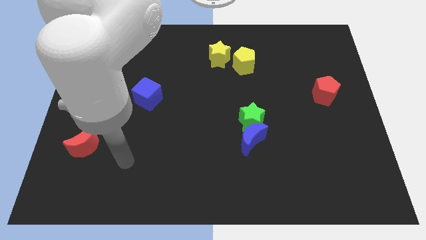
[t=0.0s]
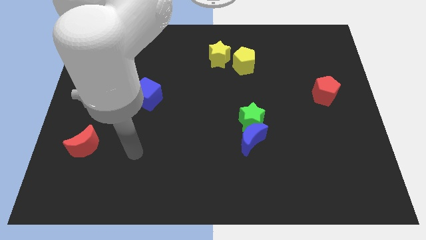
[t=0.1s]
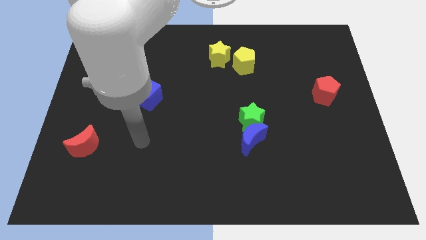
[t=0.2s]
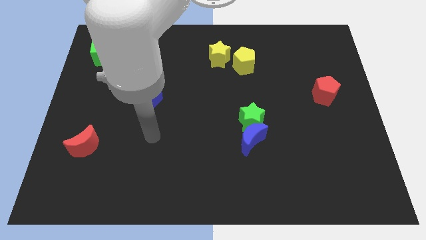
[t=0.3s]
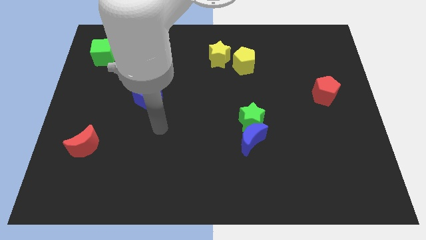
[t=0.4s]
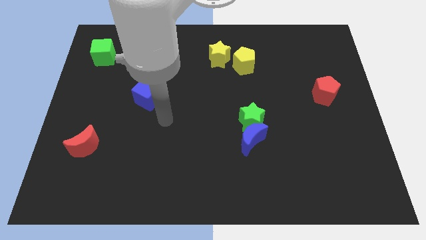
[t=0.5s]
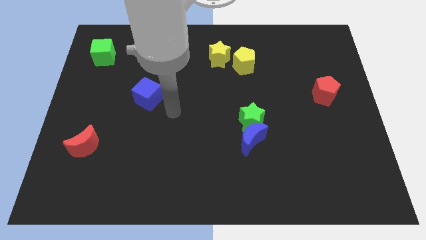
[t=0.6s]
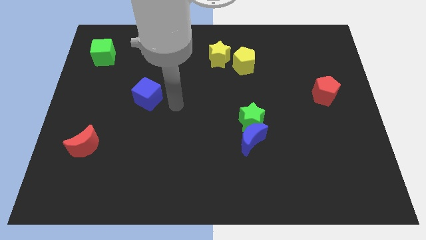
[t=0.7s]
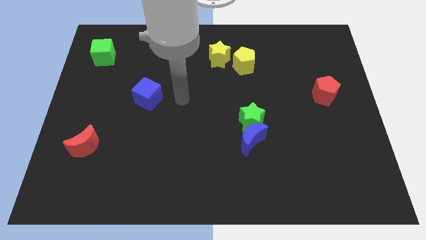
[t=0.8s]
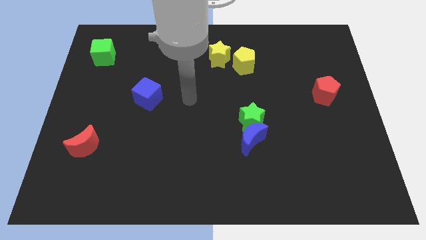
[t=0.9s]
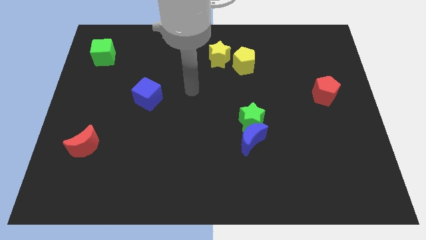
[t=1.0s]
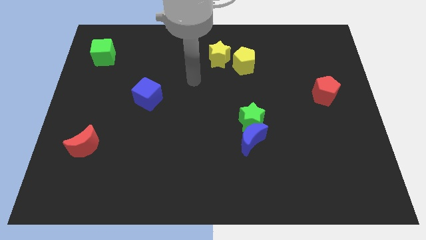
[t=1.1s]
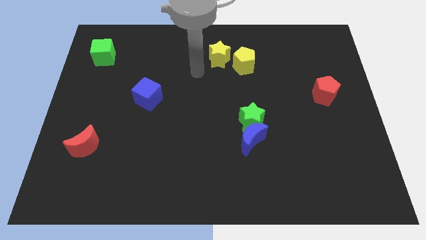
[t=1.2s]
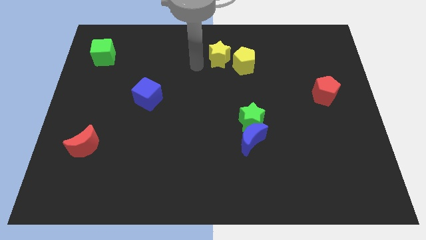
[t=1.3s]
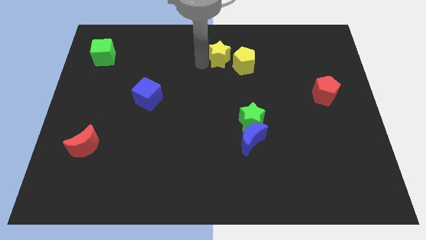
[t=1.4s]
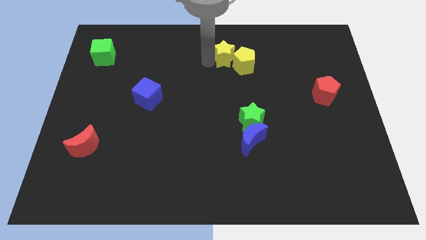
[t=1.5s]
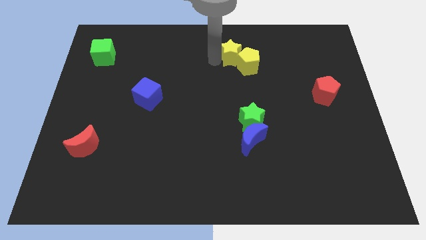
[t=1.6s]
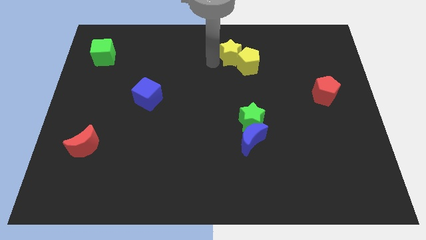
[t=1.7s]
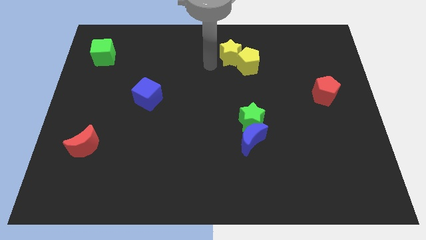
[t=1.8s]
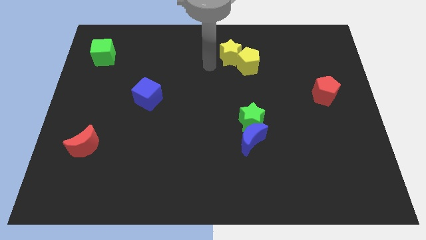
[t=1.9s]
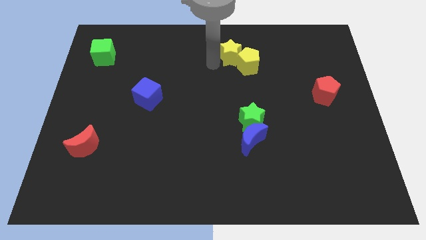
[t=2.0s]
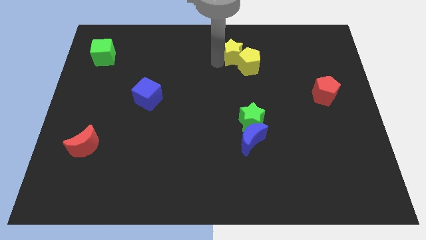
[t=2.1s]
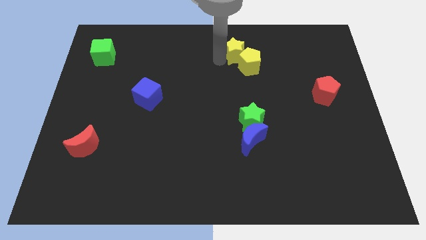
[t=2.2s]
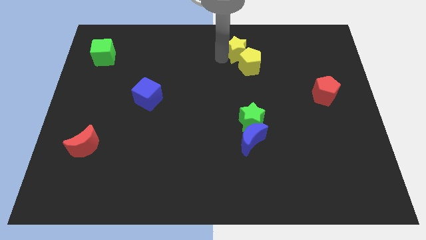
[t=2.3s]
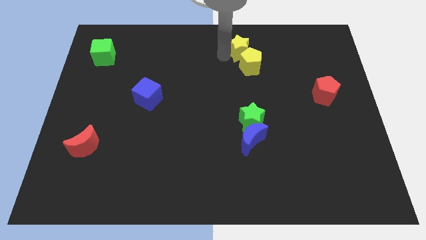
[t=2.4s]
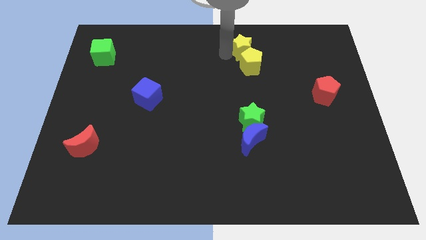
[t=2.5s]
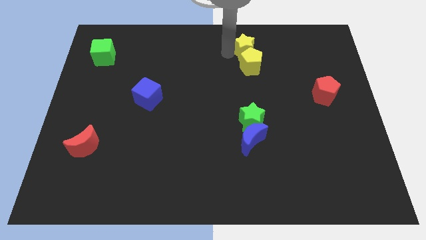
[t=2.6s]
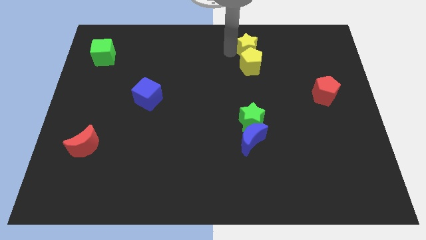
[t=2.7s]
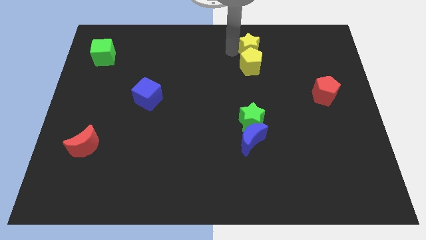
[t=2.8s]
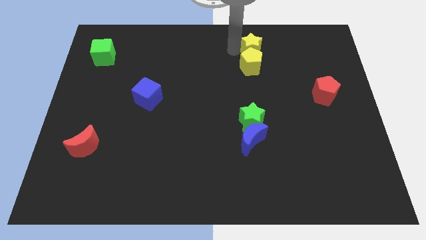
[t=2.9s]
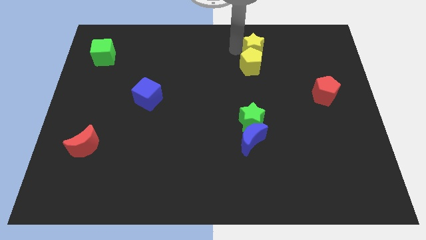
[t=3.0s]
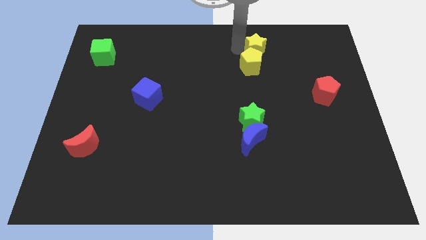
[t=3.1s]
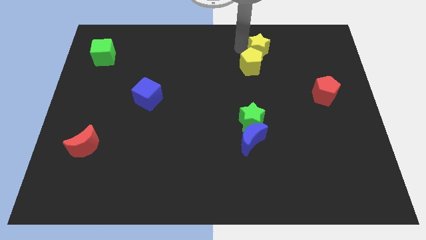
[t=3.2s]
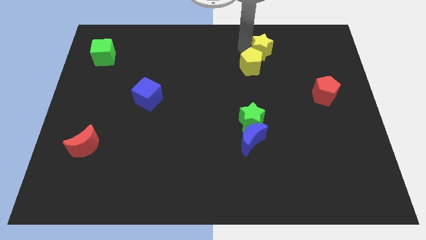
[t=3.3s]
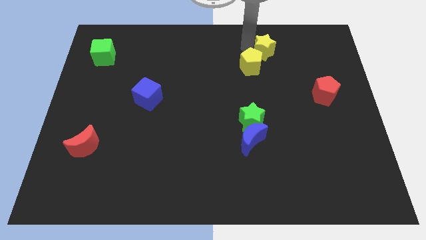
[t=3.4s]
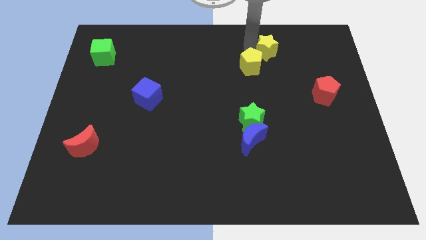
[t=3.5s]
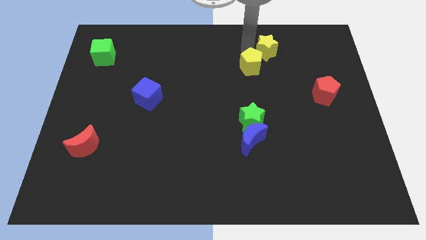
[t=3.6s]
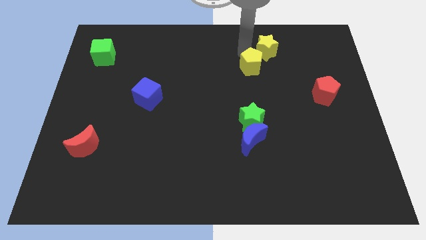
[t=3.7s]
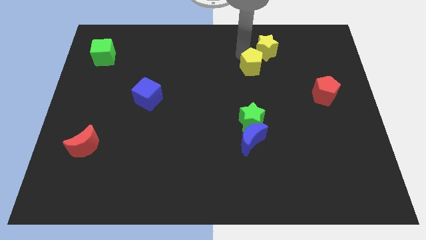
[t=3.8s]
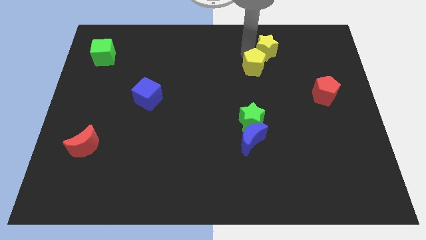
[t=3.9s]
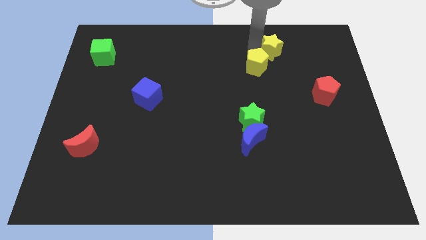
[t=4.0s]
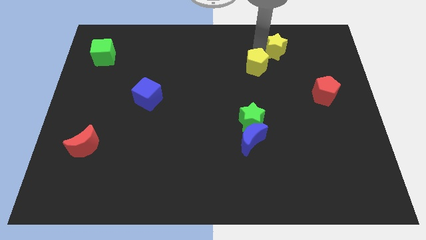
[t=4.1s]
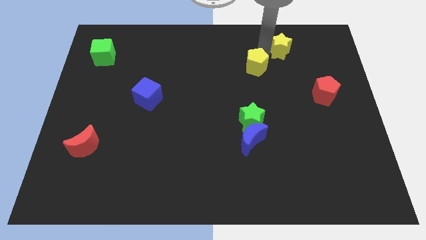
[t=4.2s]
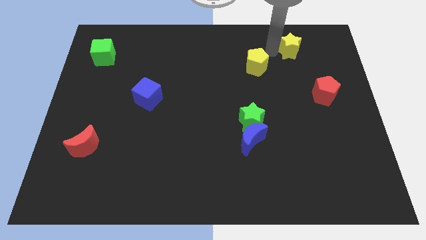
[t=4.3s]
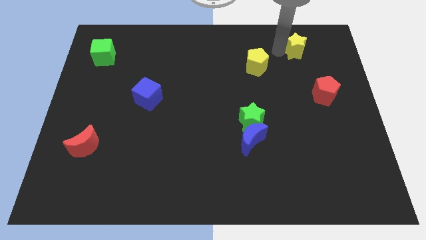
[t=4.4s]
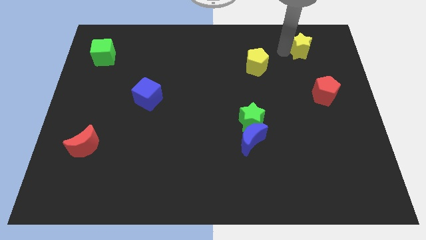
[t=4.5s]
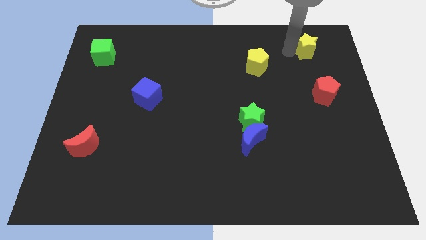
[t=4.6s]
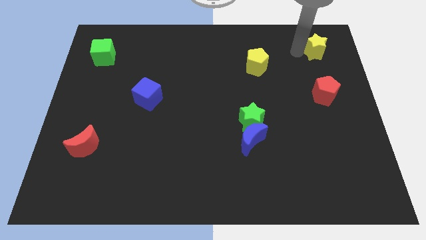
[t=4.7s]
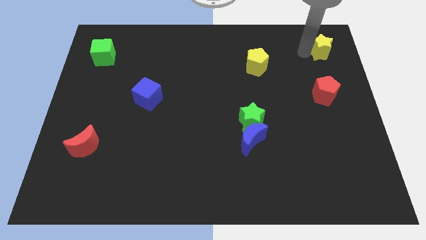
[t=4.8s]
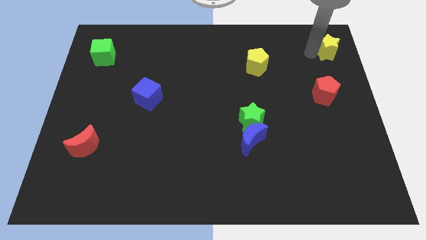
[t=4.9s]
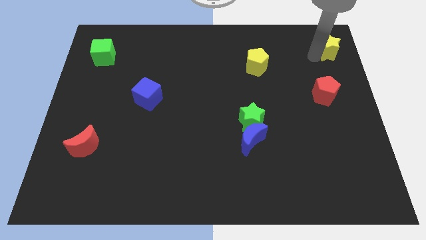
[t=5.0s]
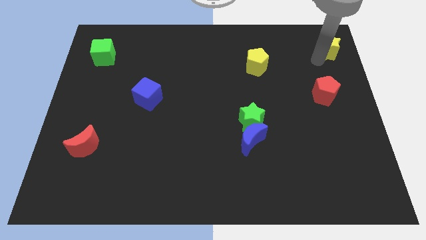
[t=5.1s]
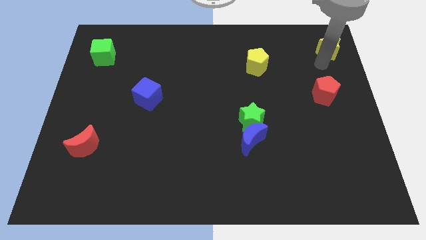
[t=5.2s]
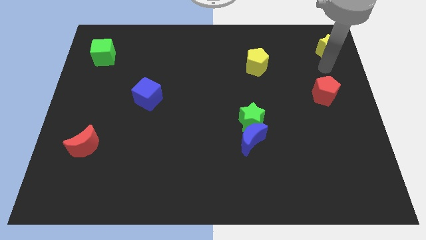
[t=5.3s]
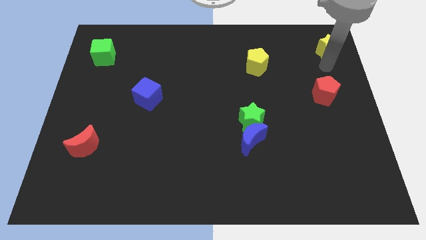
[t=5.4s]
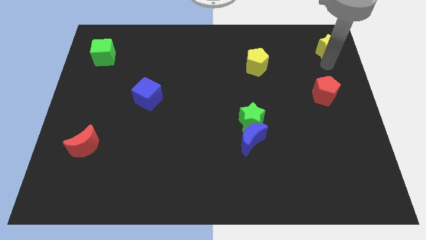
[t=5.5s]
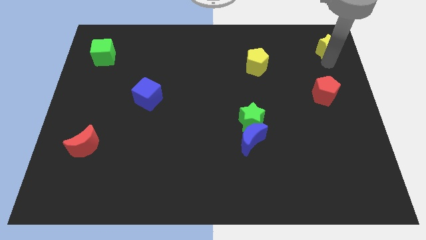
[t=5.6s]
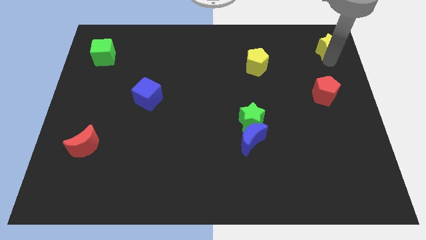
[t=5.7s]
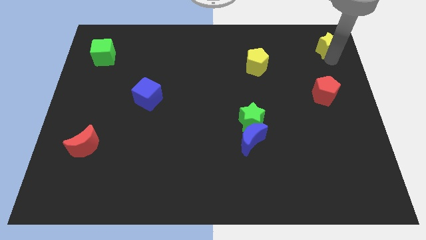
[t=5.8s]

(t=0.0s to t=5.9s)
push the yellow star to the top right corner

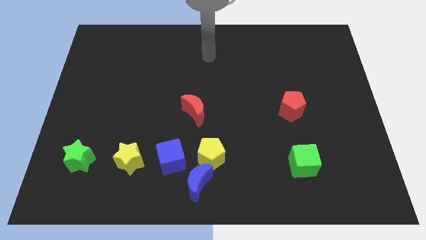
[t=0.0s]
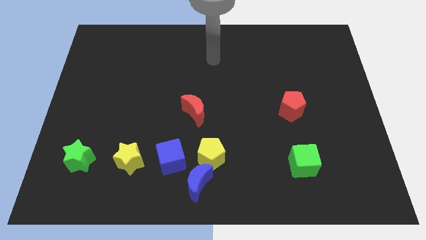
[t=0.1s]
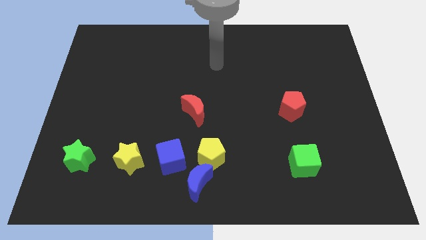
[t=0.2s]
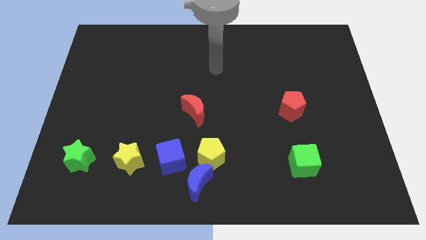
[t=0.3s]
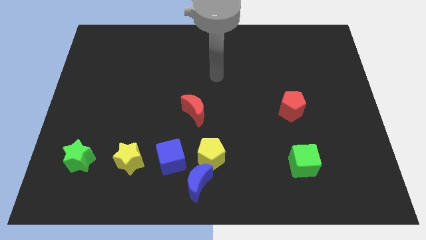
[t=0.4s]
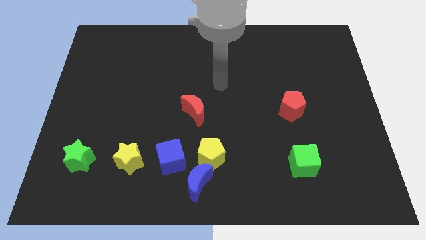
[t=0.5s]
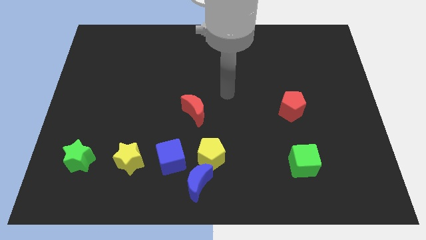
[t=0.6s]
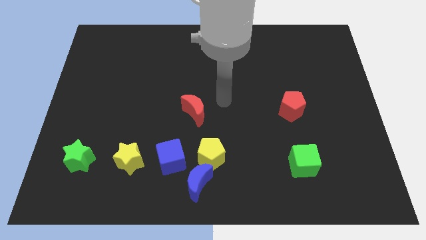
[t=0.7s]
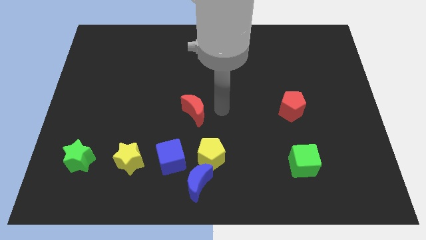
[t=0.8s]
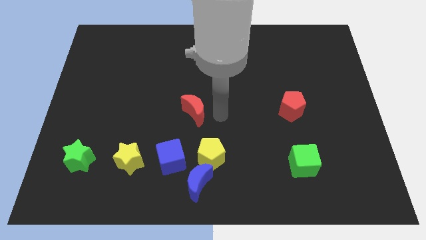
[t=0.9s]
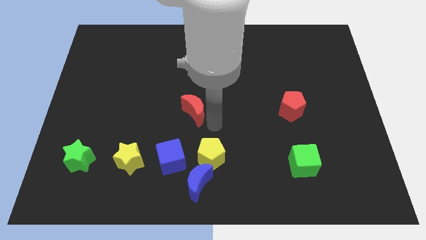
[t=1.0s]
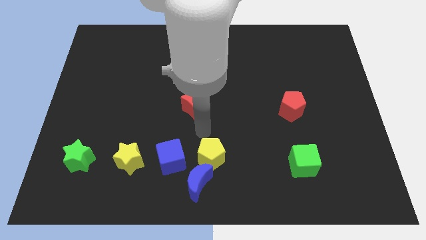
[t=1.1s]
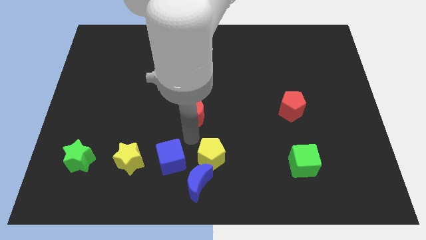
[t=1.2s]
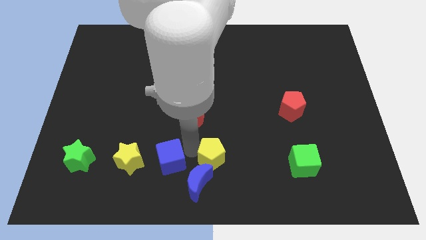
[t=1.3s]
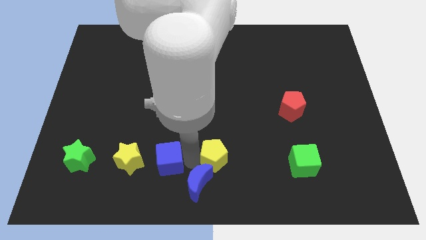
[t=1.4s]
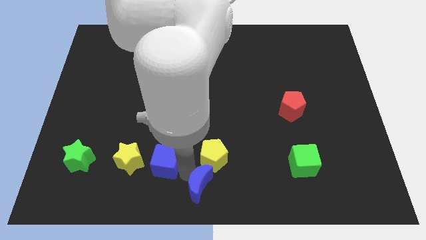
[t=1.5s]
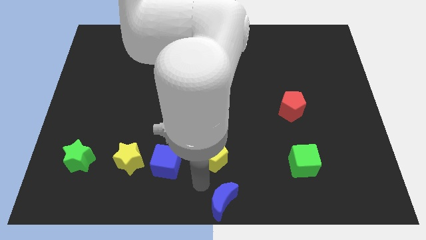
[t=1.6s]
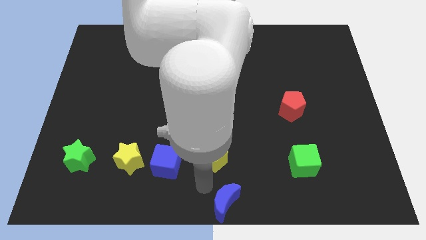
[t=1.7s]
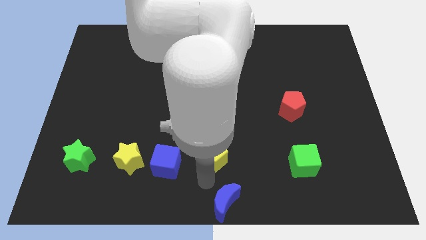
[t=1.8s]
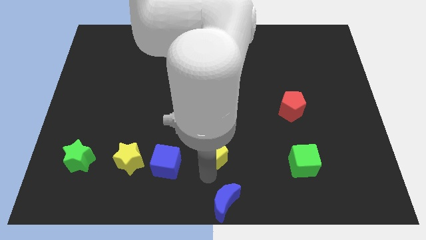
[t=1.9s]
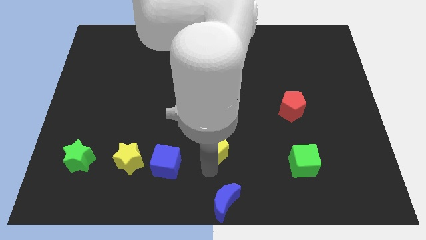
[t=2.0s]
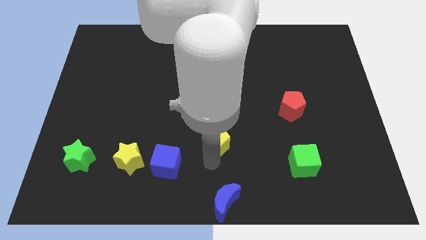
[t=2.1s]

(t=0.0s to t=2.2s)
put the yellow pentagon to the center
